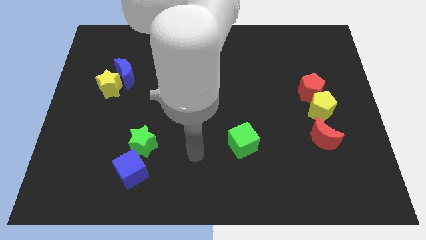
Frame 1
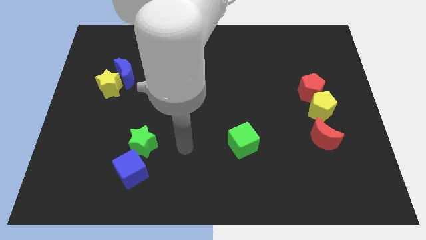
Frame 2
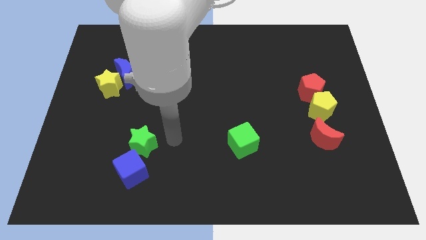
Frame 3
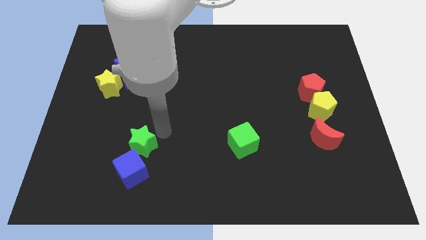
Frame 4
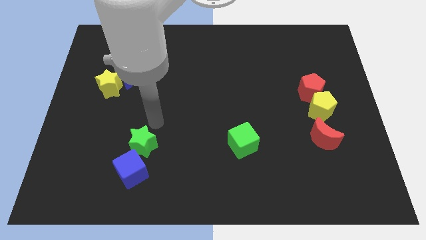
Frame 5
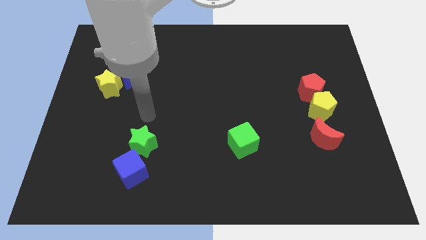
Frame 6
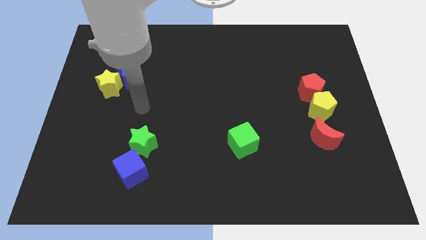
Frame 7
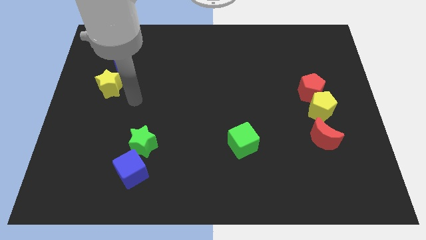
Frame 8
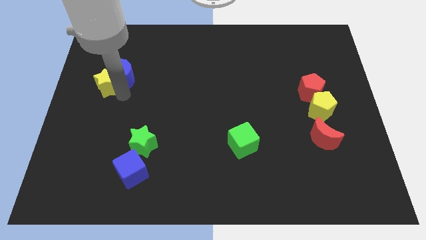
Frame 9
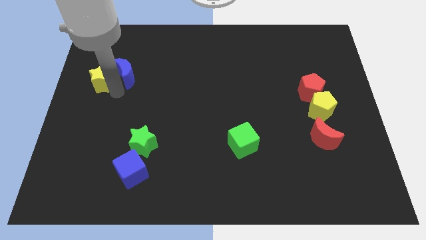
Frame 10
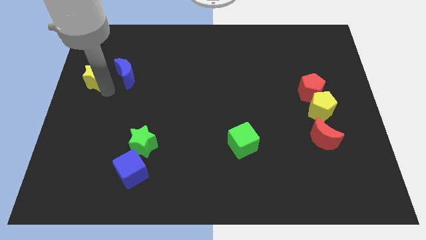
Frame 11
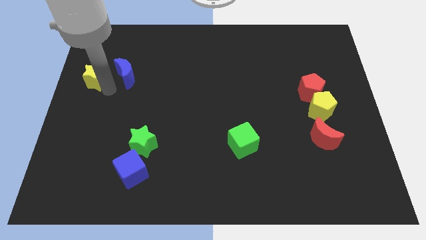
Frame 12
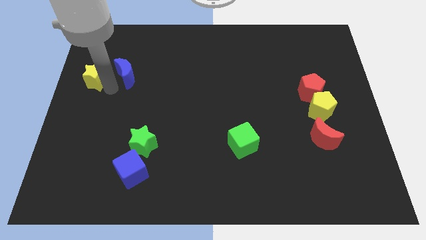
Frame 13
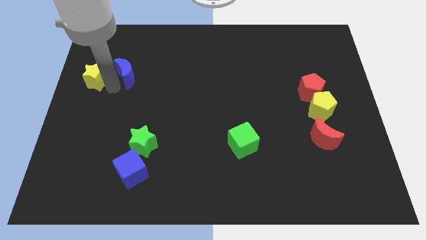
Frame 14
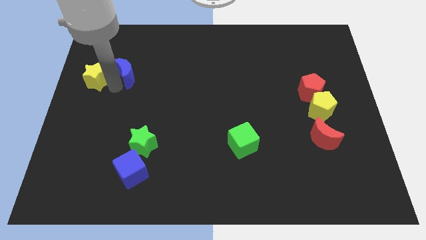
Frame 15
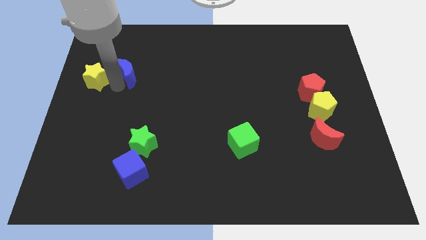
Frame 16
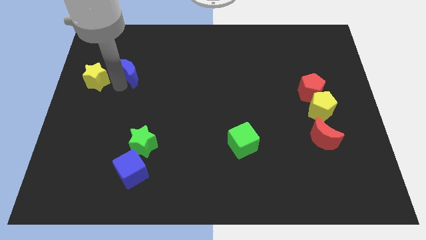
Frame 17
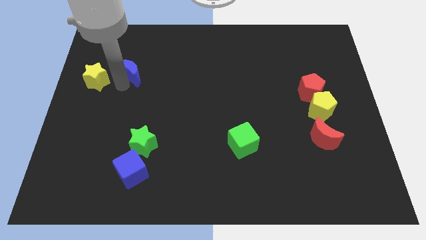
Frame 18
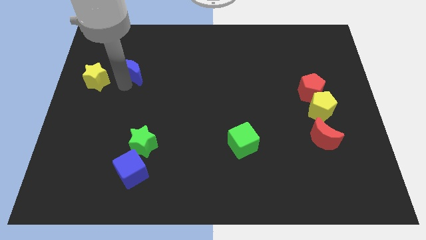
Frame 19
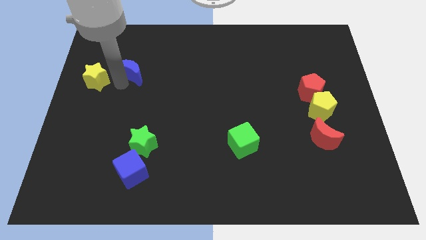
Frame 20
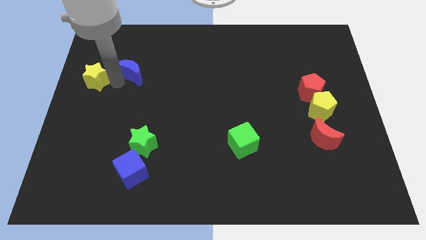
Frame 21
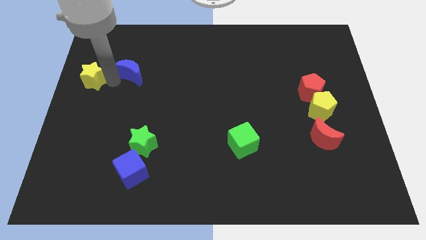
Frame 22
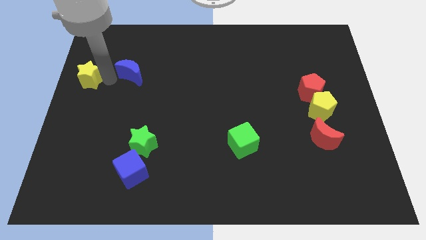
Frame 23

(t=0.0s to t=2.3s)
separate the blue moon from the yellow star

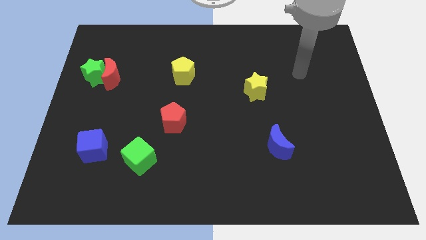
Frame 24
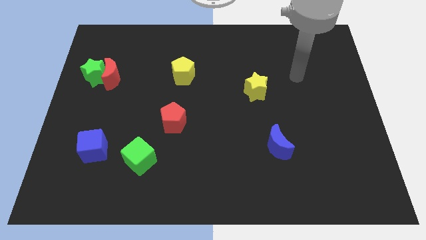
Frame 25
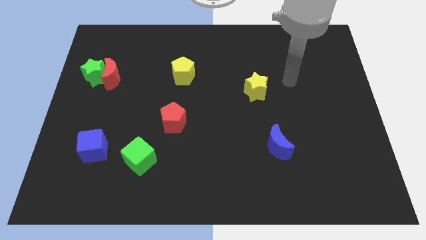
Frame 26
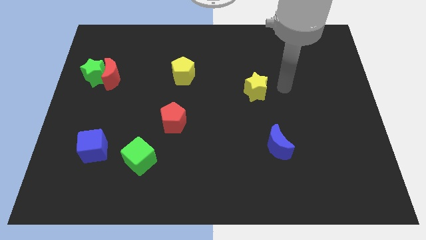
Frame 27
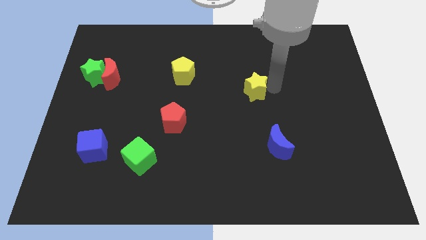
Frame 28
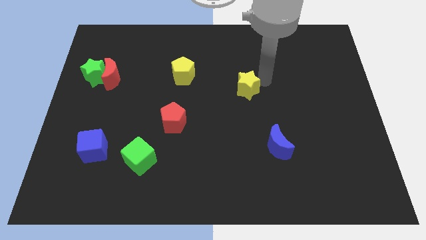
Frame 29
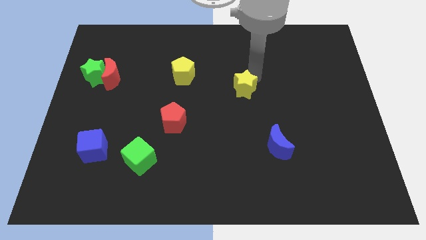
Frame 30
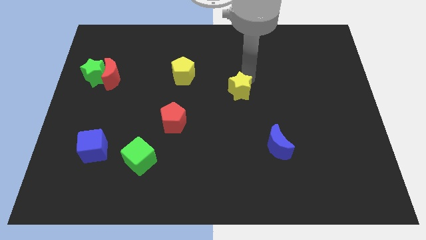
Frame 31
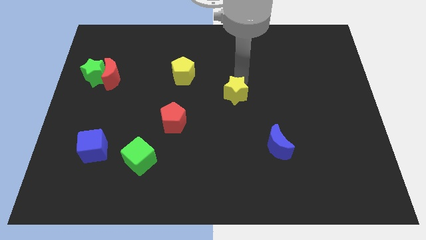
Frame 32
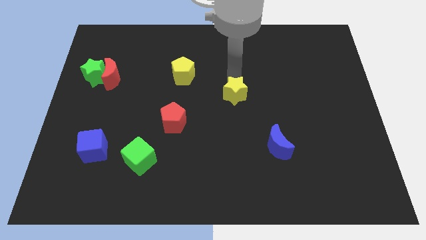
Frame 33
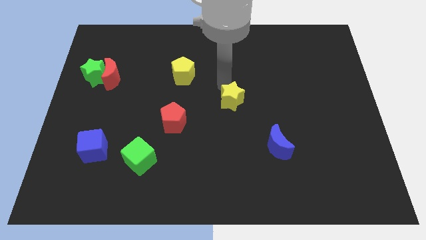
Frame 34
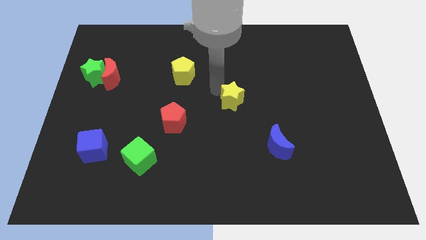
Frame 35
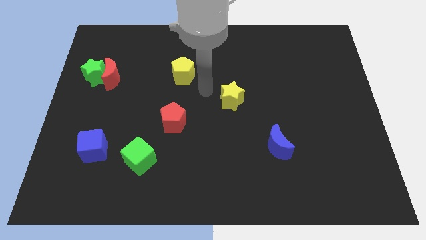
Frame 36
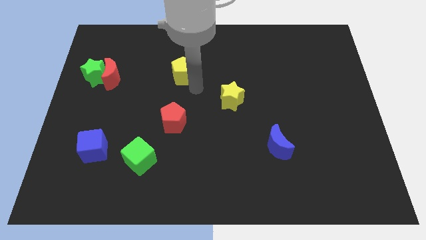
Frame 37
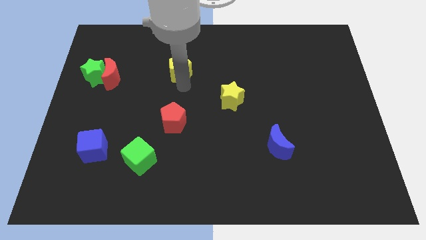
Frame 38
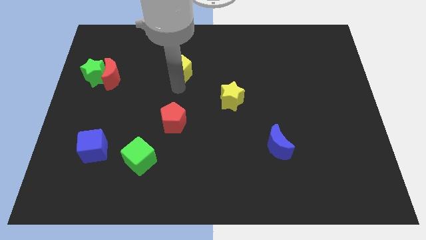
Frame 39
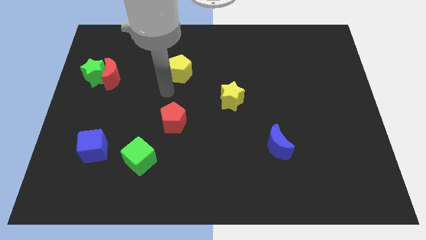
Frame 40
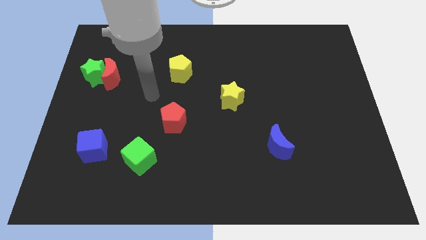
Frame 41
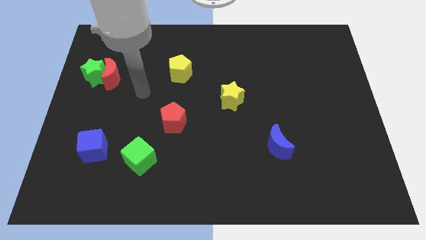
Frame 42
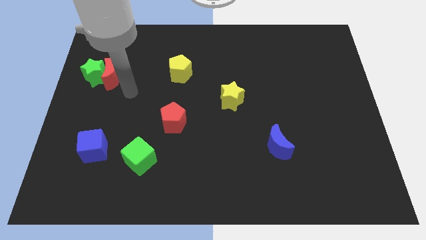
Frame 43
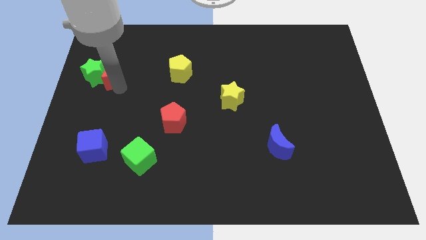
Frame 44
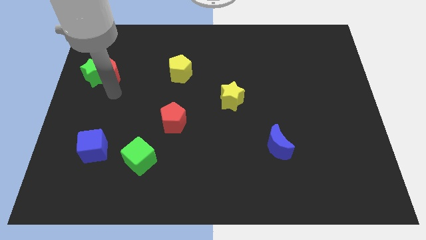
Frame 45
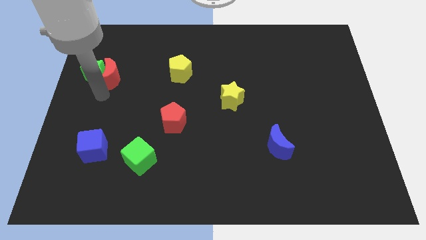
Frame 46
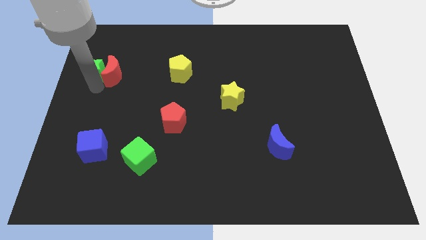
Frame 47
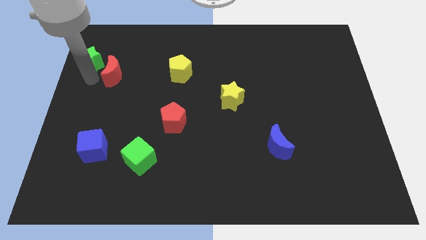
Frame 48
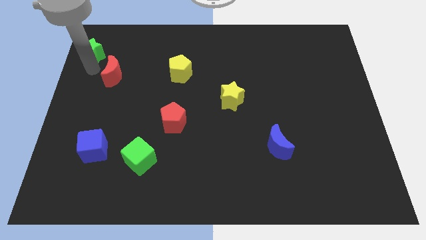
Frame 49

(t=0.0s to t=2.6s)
separate the red moon from the green star

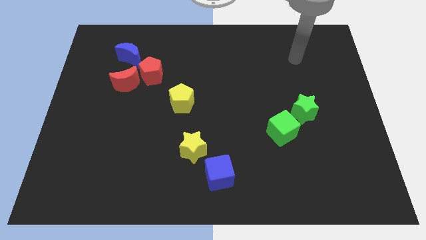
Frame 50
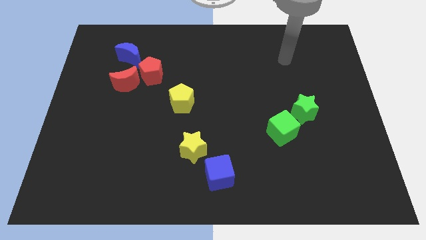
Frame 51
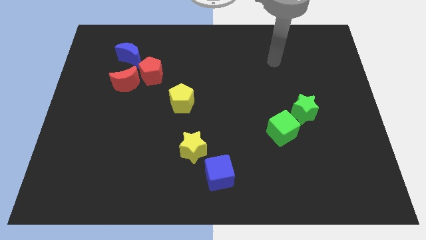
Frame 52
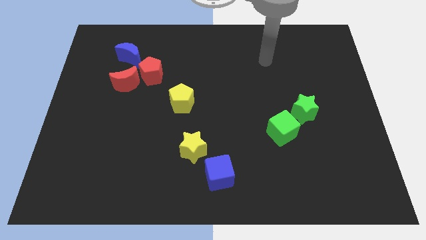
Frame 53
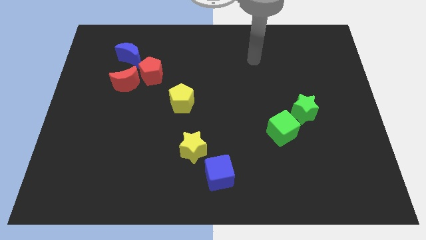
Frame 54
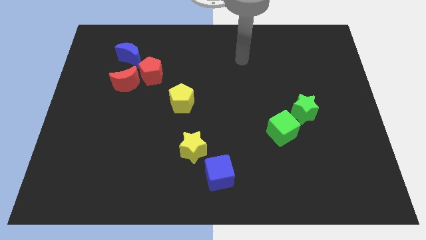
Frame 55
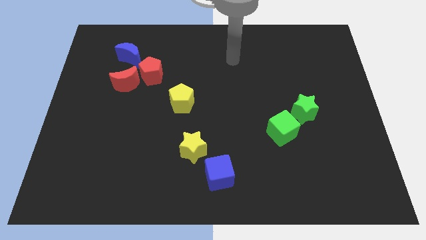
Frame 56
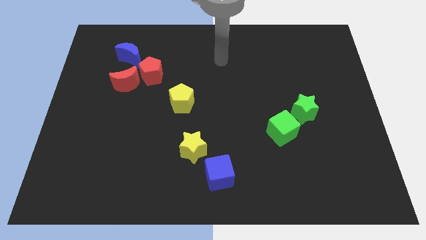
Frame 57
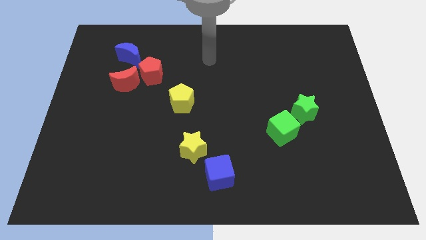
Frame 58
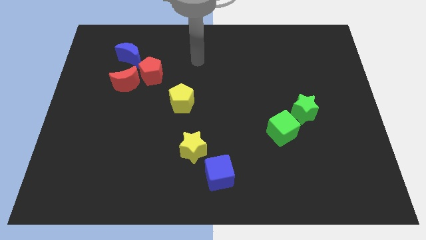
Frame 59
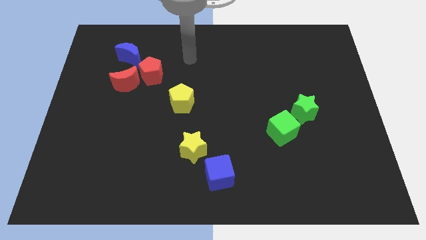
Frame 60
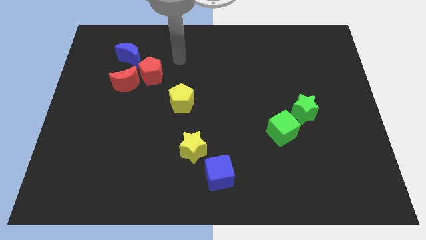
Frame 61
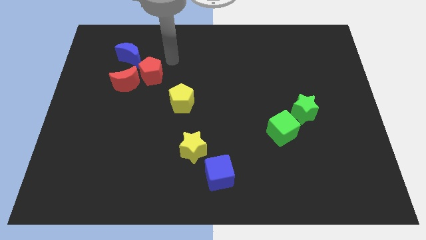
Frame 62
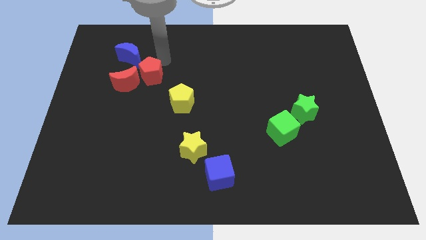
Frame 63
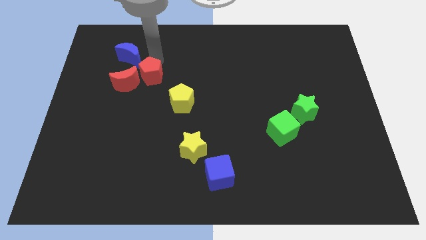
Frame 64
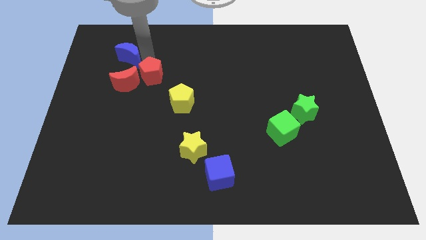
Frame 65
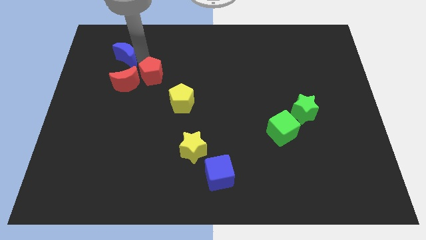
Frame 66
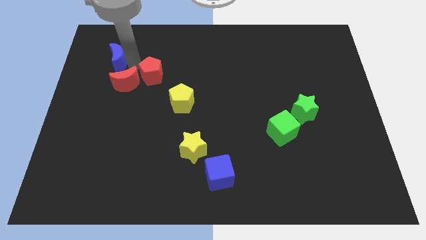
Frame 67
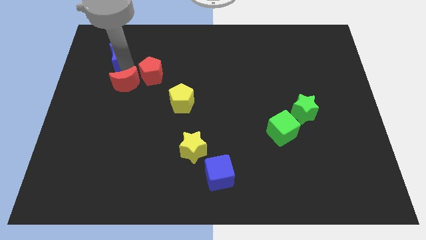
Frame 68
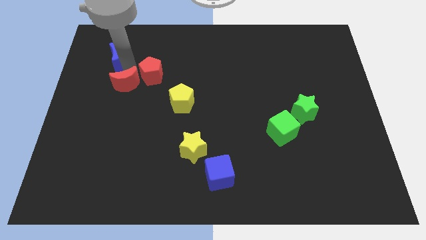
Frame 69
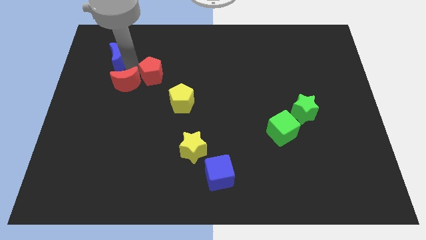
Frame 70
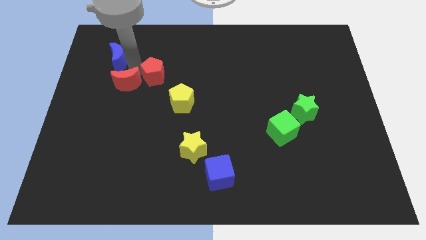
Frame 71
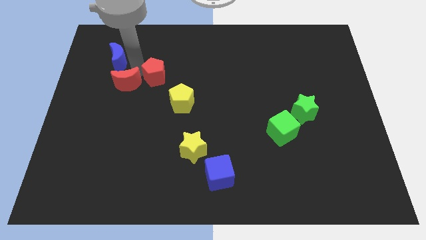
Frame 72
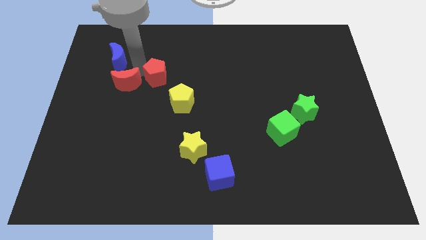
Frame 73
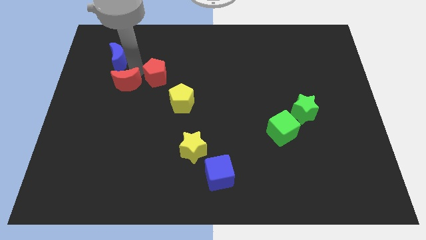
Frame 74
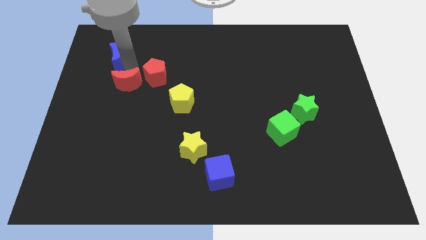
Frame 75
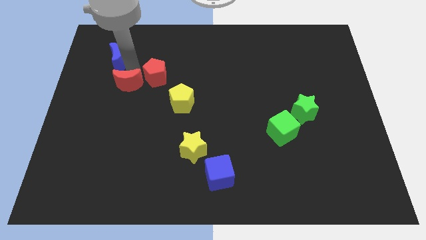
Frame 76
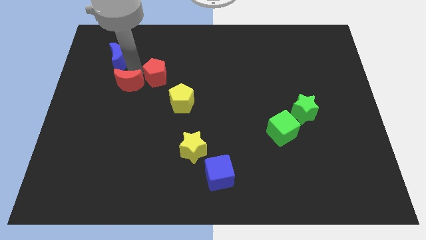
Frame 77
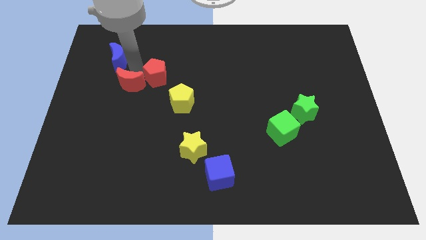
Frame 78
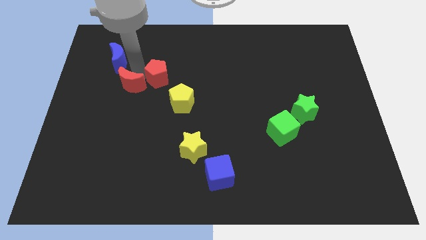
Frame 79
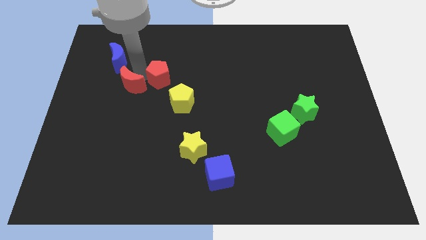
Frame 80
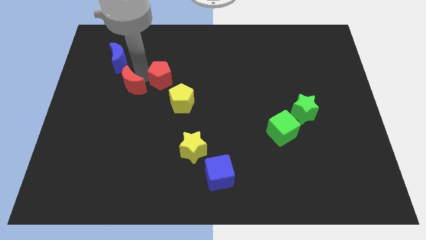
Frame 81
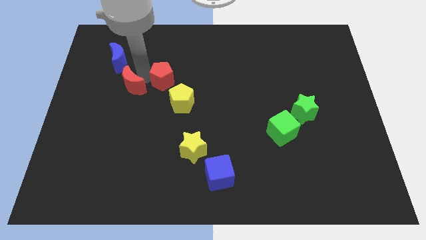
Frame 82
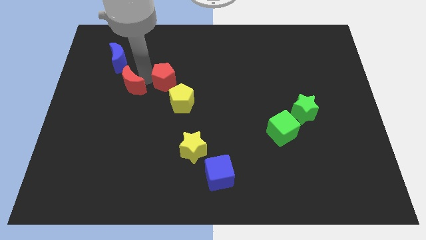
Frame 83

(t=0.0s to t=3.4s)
separate the red pentagon from the red moon and blue moon

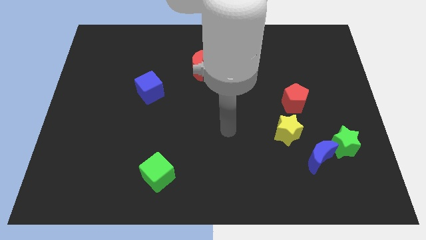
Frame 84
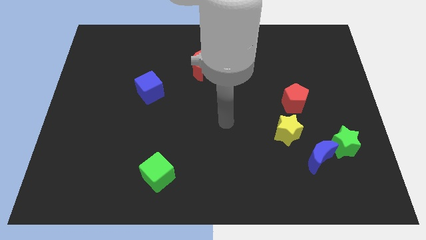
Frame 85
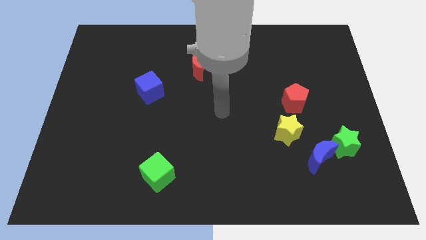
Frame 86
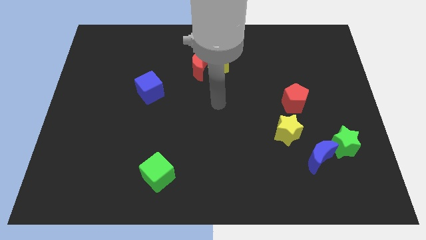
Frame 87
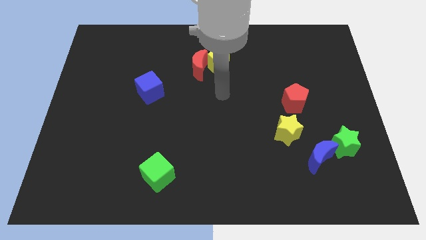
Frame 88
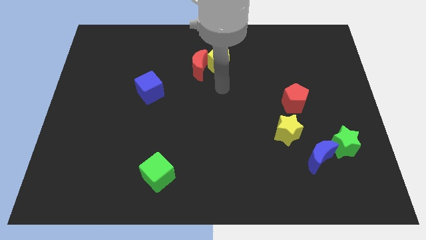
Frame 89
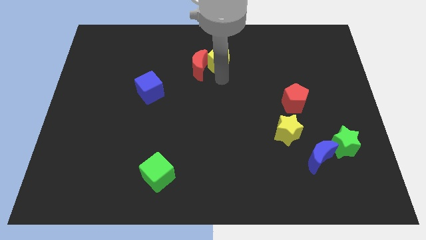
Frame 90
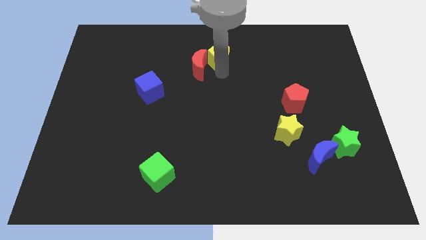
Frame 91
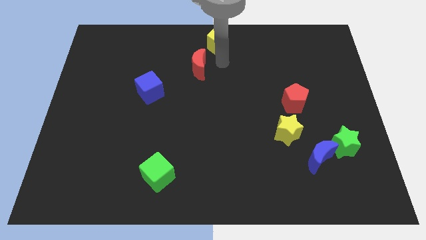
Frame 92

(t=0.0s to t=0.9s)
pull the red moon apart from the yellow pentagon
